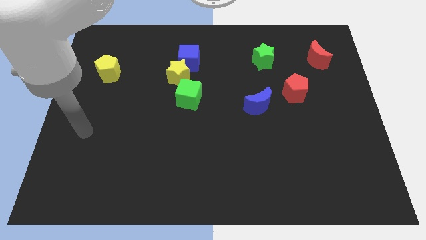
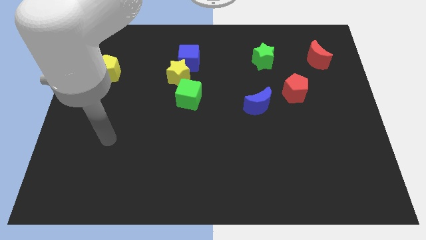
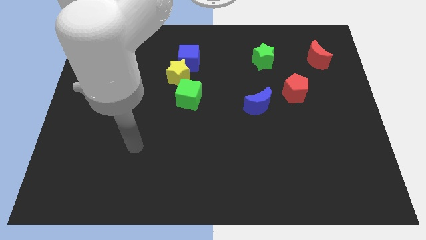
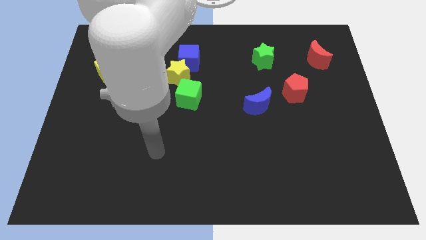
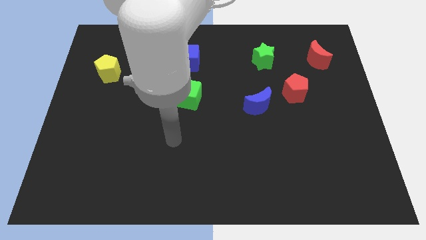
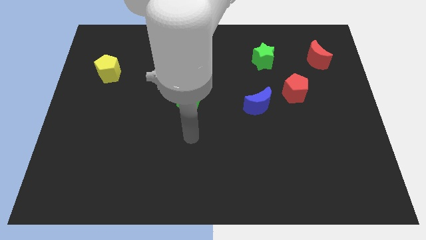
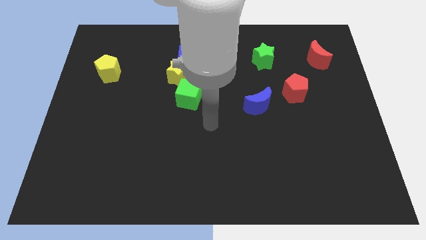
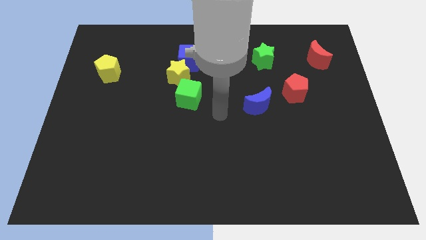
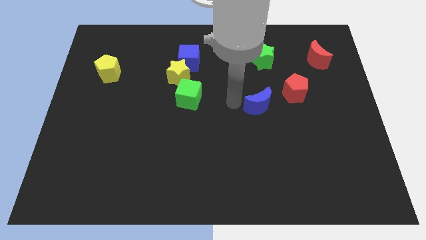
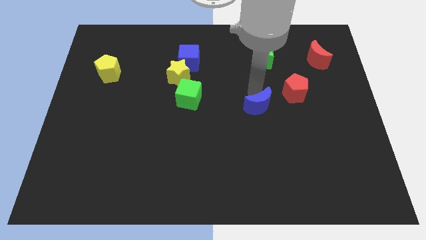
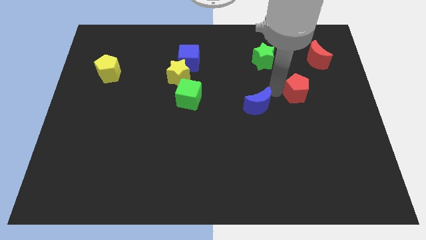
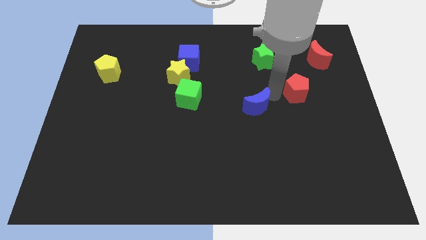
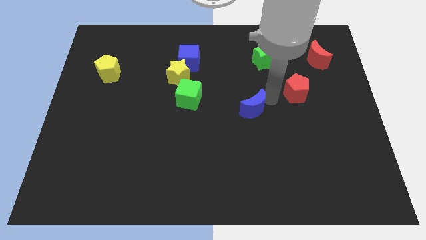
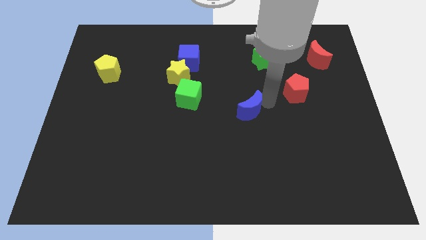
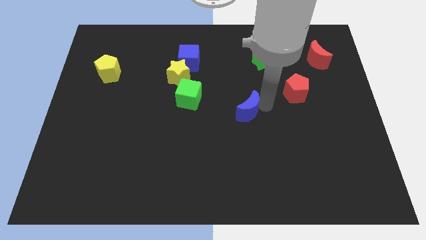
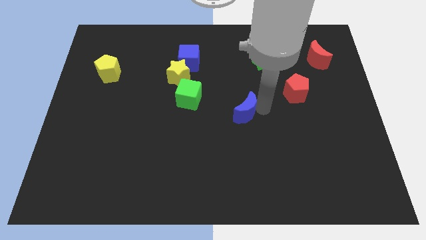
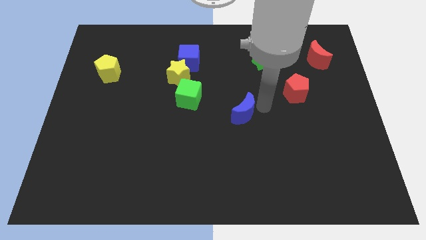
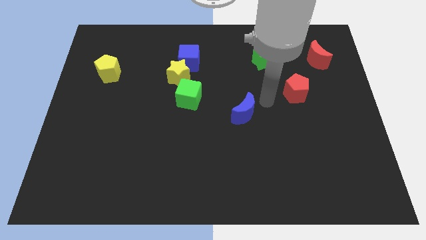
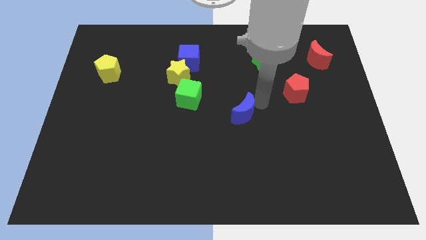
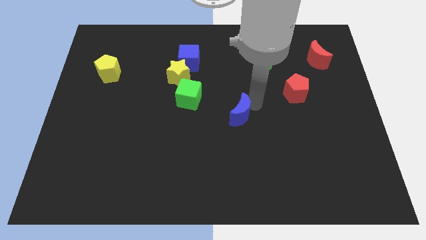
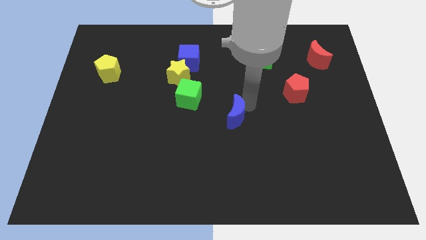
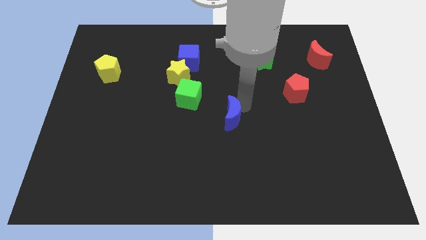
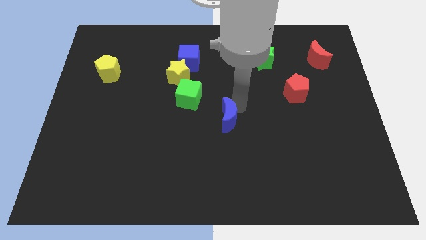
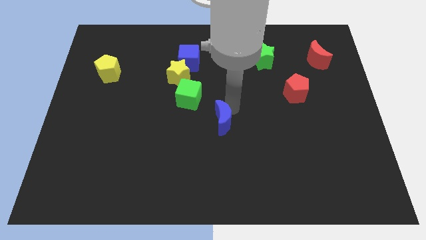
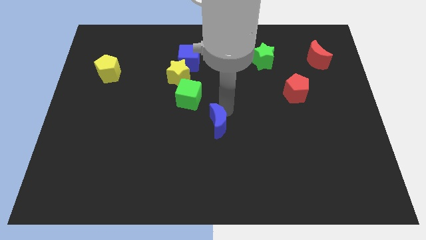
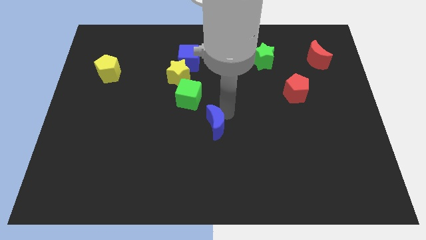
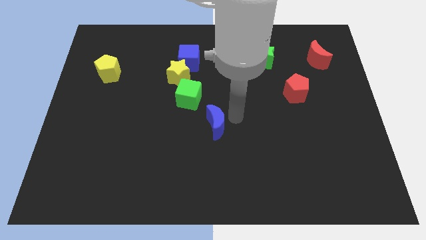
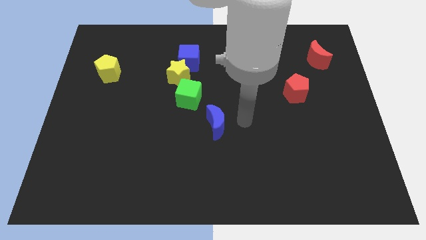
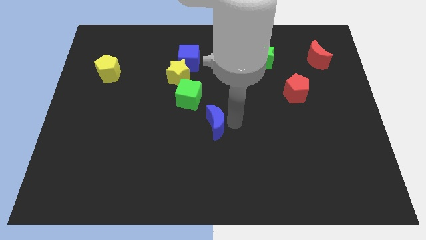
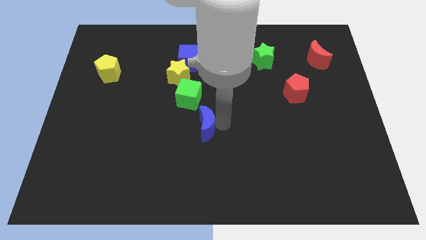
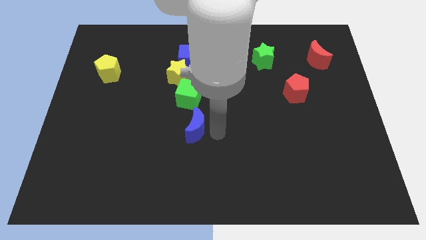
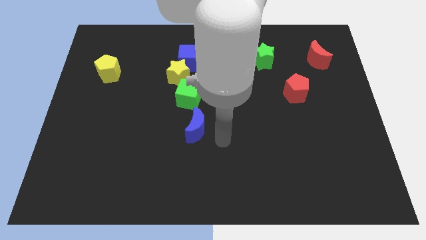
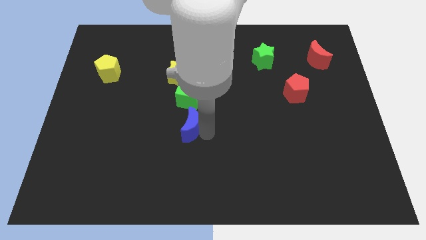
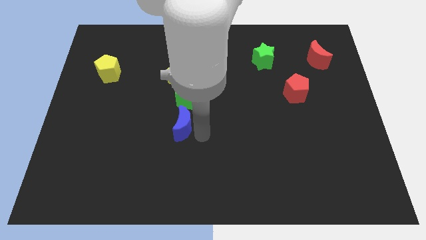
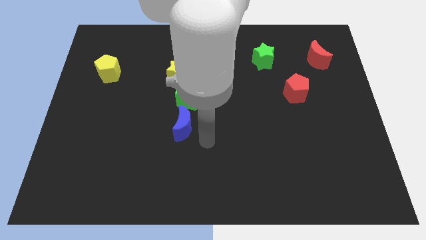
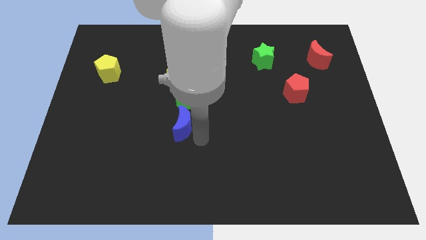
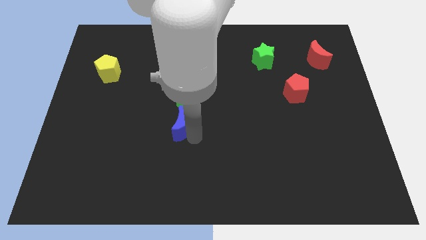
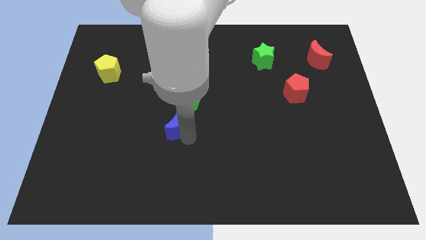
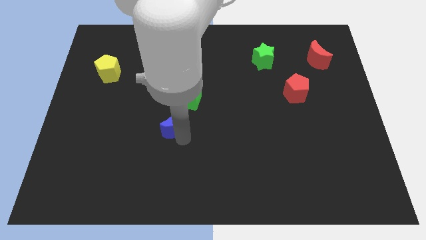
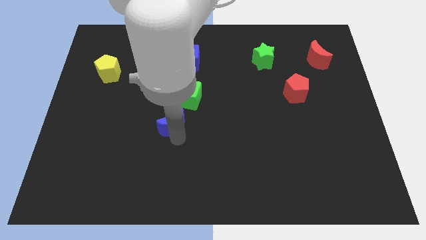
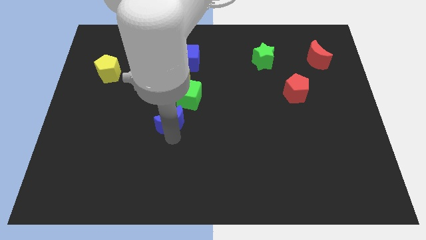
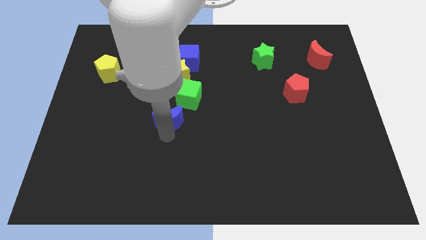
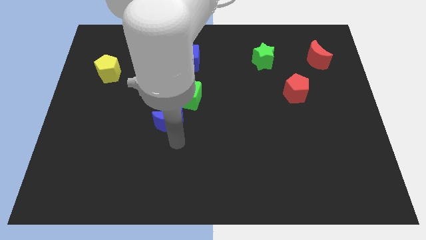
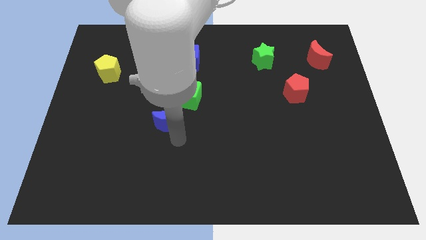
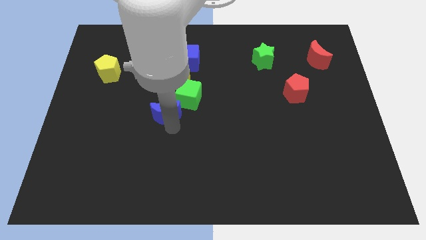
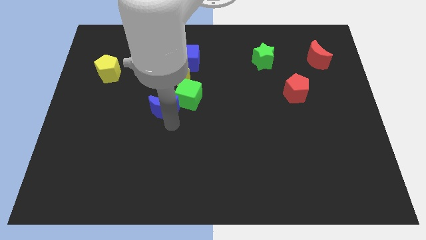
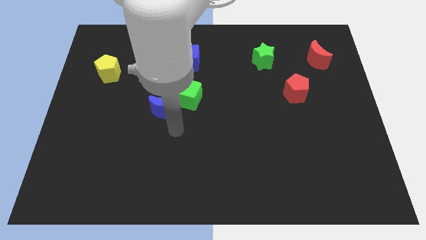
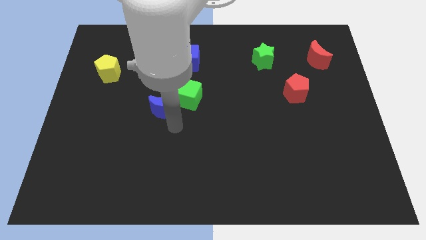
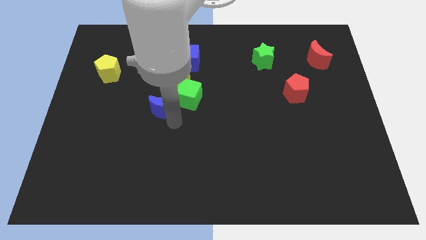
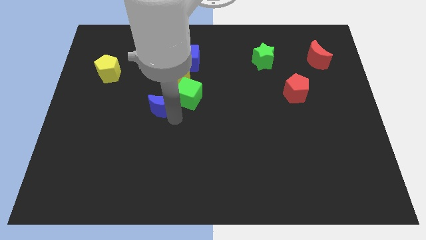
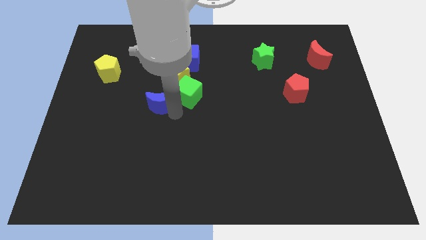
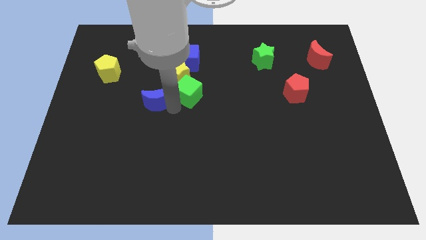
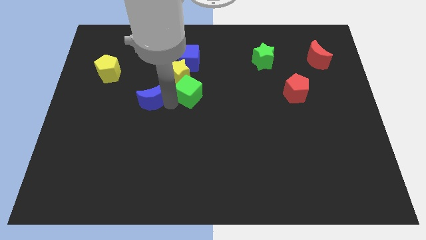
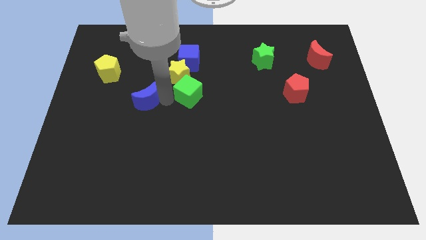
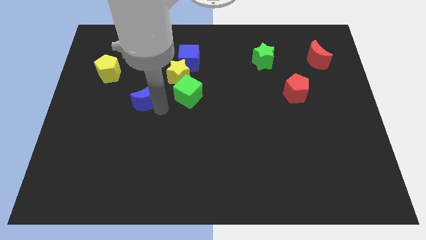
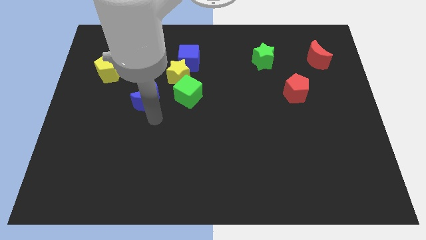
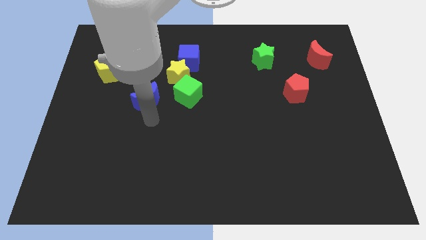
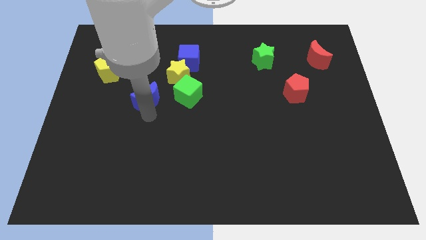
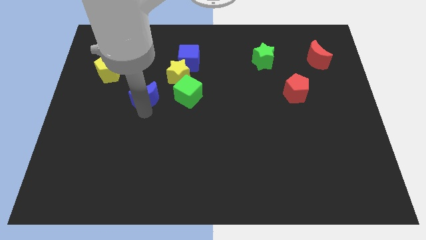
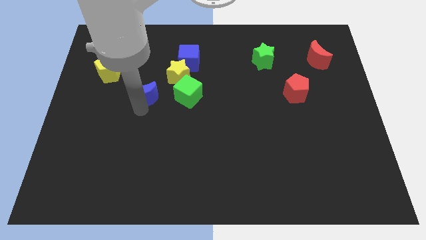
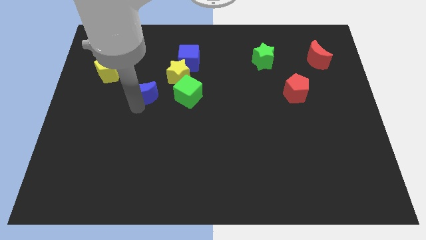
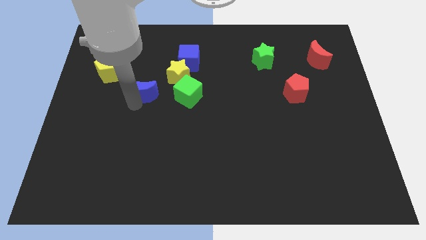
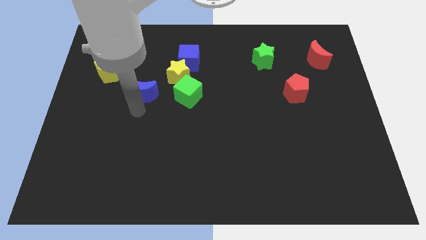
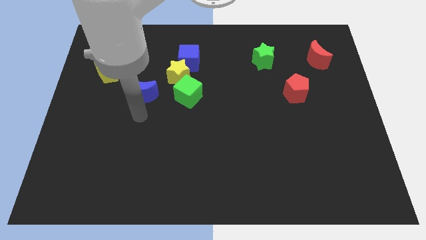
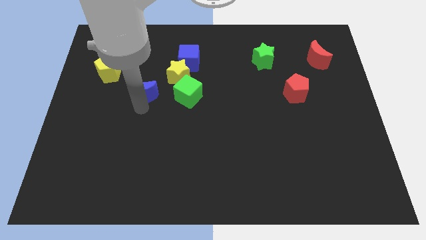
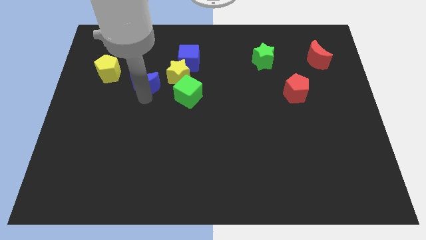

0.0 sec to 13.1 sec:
slide the blue moon to the left side of the yellow star
